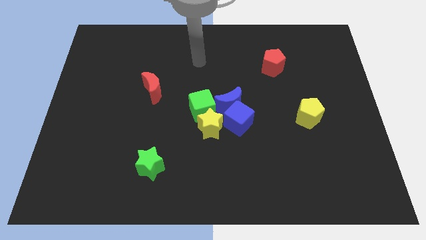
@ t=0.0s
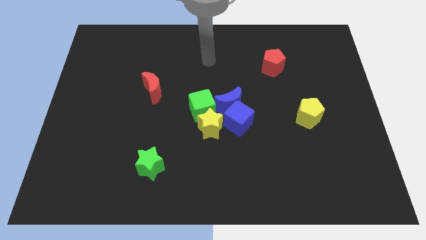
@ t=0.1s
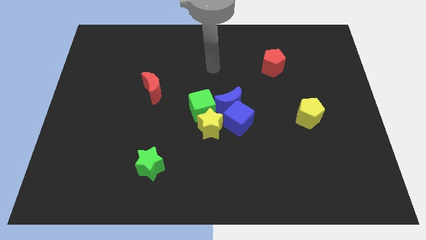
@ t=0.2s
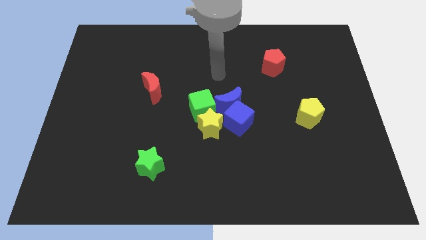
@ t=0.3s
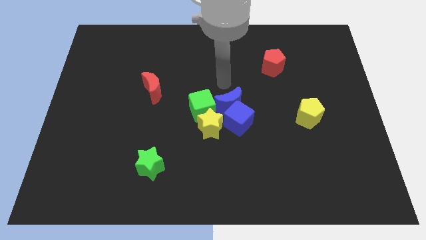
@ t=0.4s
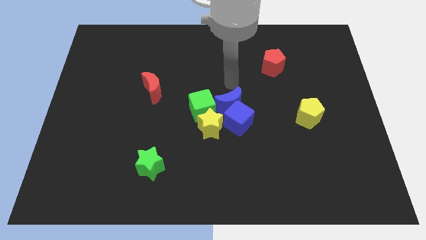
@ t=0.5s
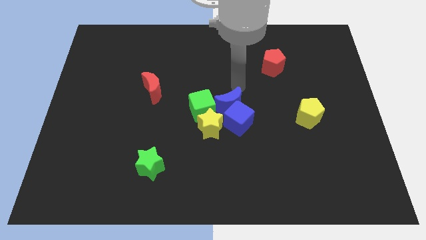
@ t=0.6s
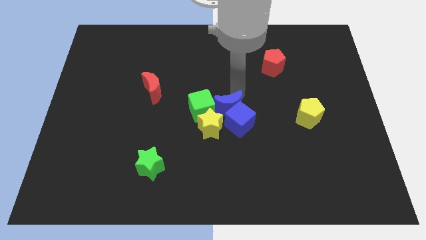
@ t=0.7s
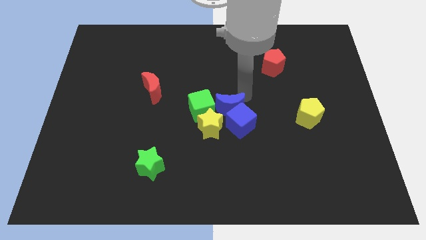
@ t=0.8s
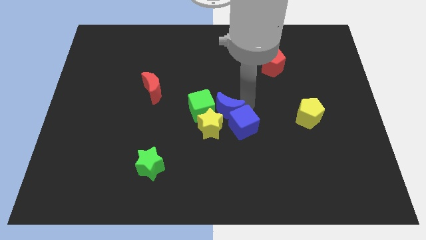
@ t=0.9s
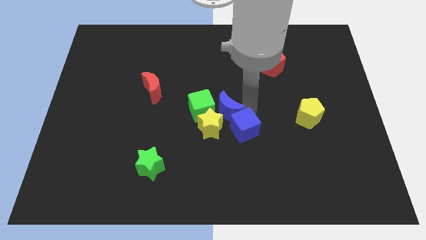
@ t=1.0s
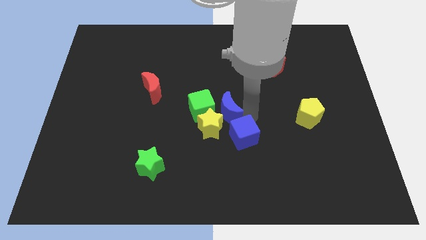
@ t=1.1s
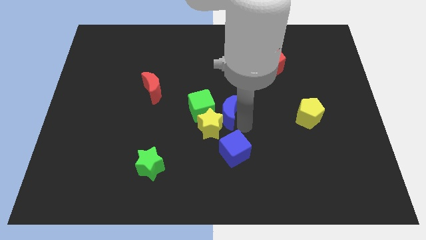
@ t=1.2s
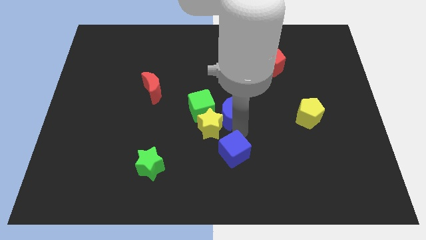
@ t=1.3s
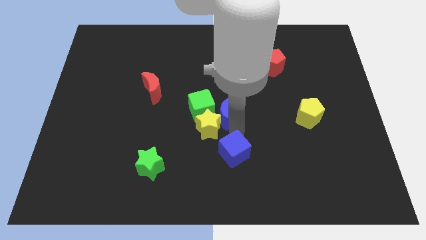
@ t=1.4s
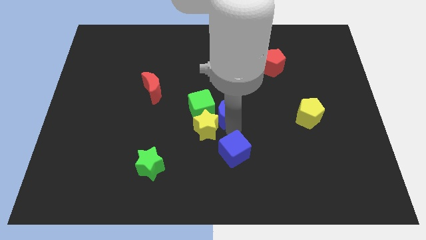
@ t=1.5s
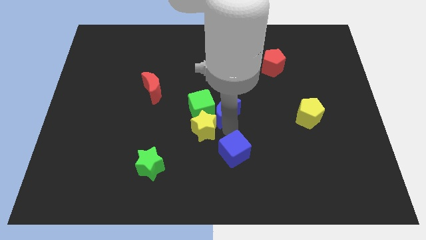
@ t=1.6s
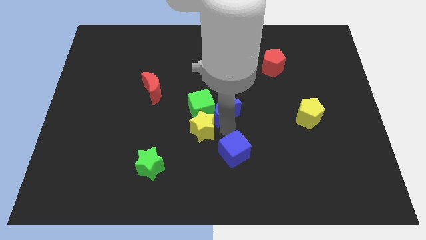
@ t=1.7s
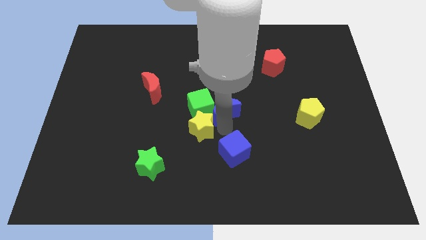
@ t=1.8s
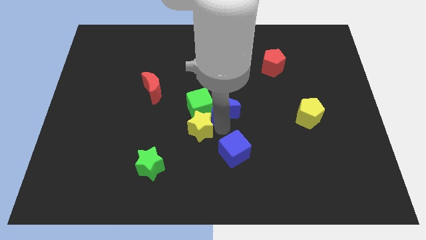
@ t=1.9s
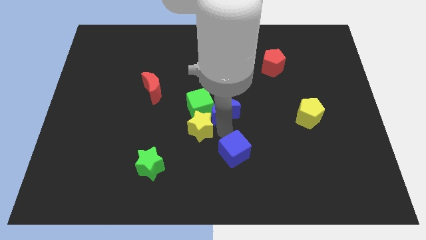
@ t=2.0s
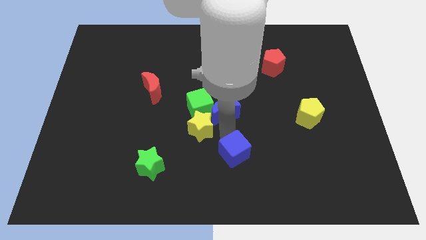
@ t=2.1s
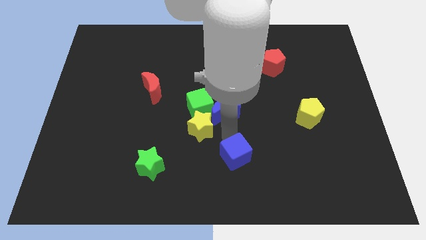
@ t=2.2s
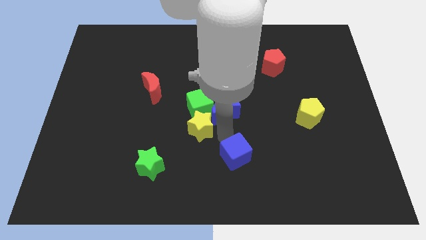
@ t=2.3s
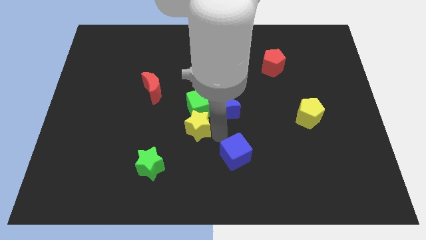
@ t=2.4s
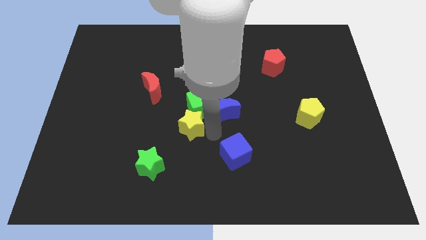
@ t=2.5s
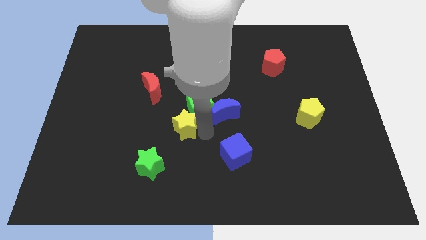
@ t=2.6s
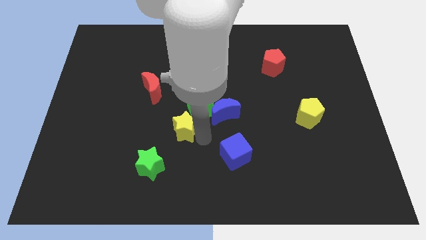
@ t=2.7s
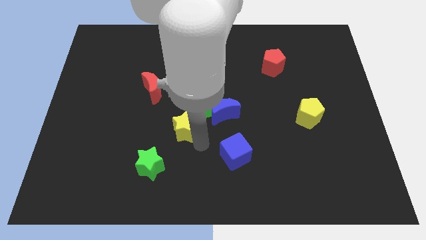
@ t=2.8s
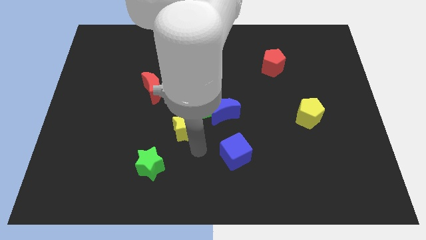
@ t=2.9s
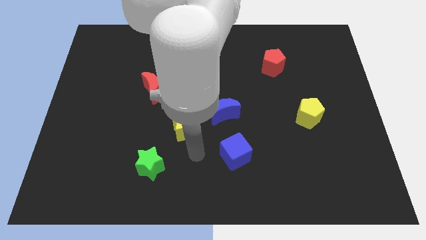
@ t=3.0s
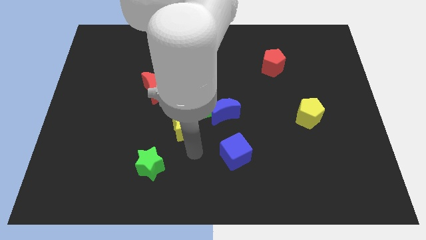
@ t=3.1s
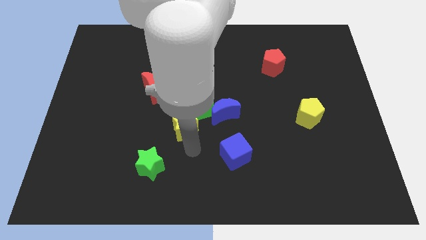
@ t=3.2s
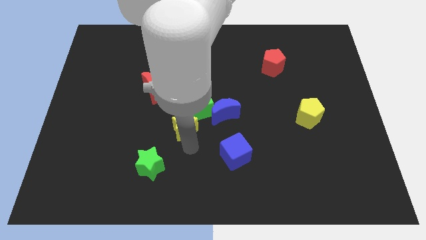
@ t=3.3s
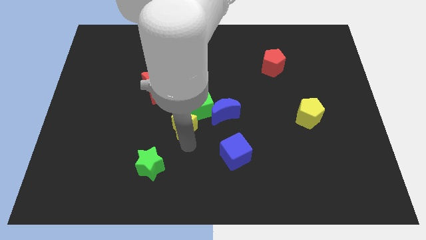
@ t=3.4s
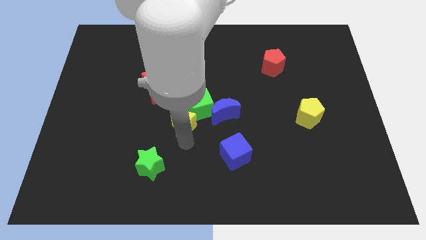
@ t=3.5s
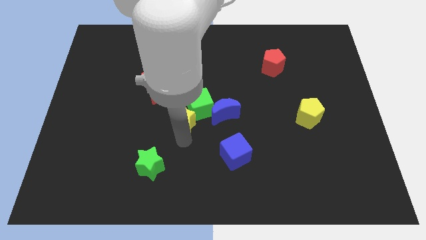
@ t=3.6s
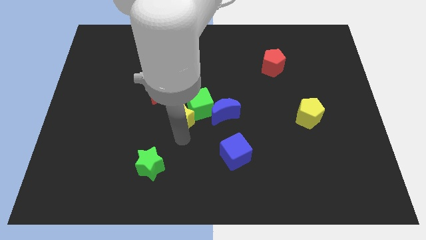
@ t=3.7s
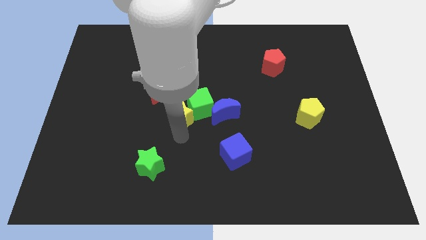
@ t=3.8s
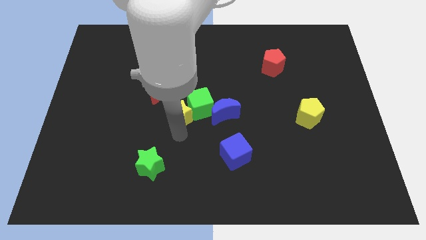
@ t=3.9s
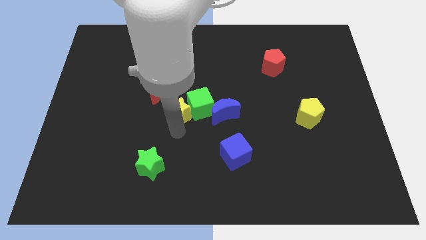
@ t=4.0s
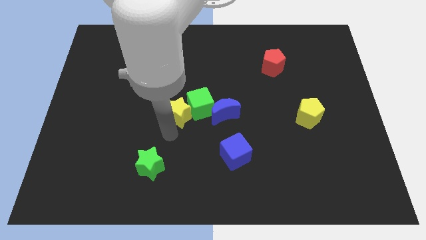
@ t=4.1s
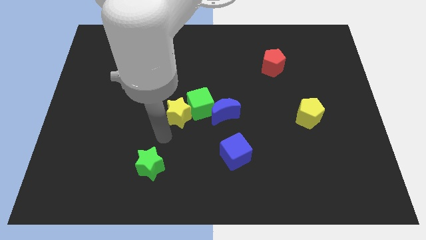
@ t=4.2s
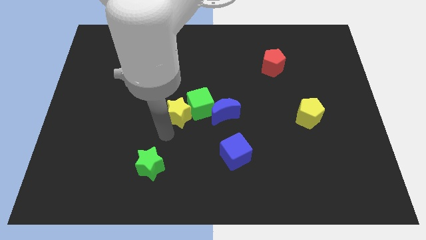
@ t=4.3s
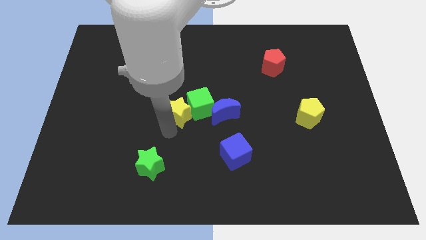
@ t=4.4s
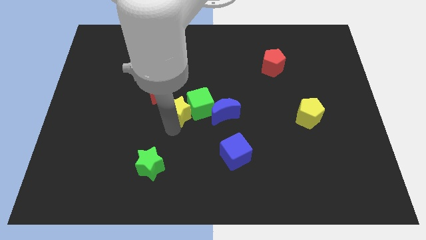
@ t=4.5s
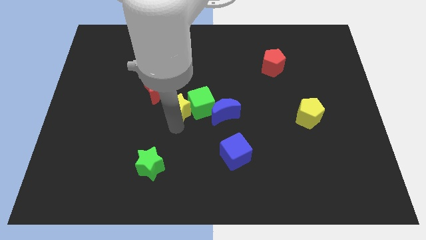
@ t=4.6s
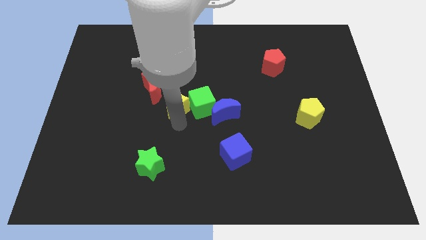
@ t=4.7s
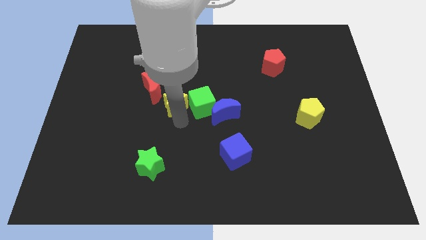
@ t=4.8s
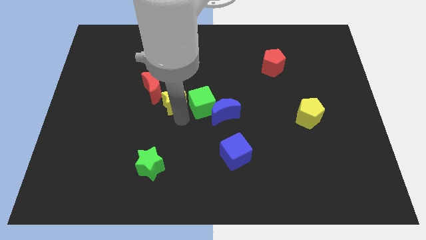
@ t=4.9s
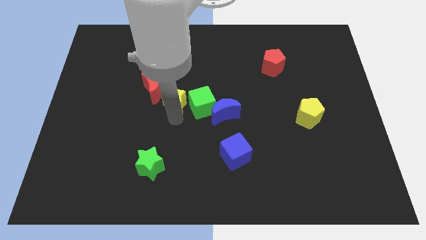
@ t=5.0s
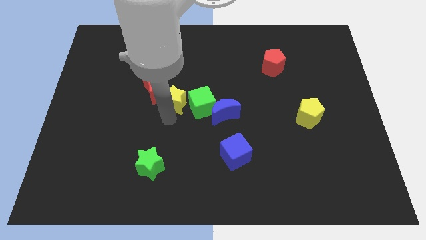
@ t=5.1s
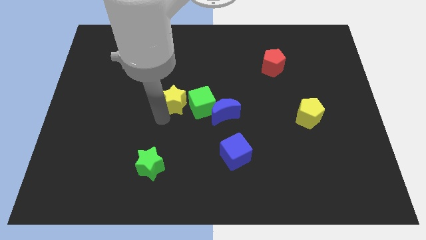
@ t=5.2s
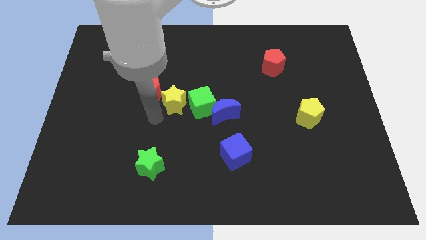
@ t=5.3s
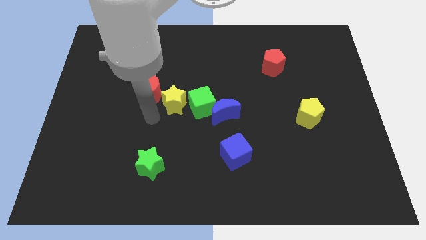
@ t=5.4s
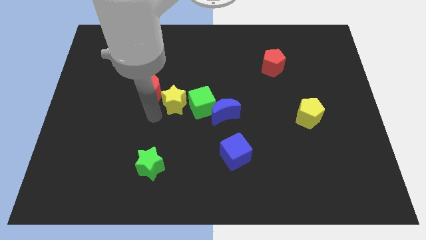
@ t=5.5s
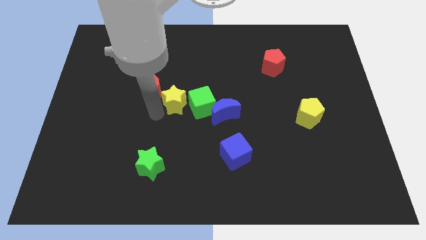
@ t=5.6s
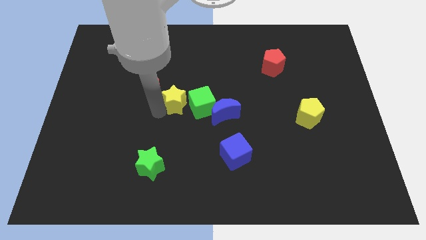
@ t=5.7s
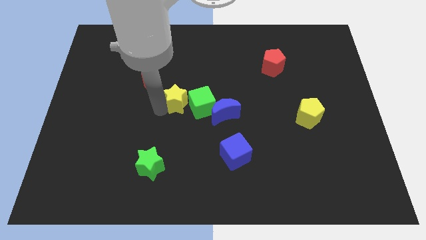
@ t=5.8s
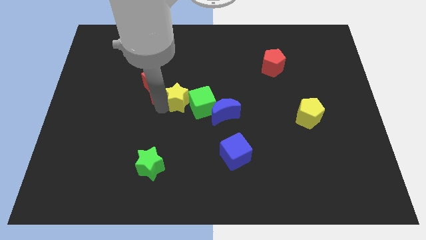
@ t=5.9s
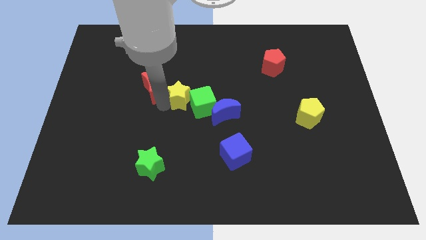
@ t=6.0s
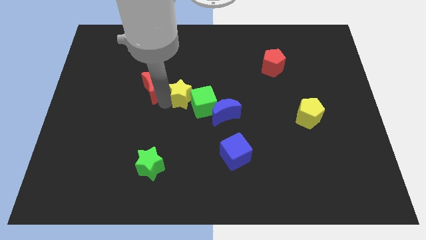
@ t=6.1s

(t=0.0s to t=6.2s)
slightly slide the yellow star upwards

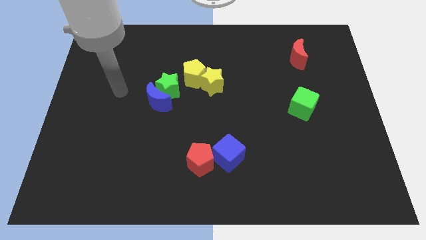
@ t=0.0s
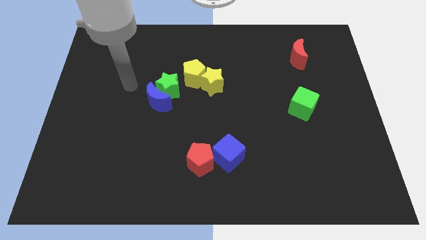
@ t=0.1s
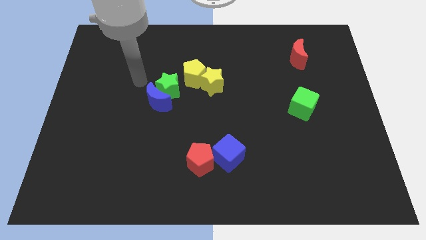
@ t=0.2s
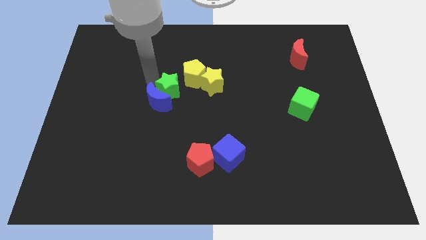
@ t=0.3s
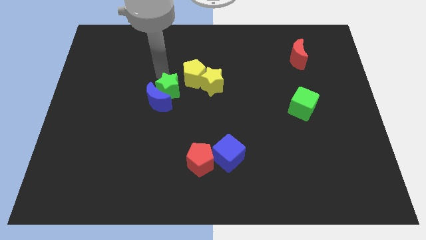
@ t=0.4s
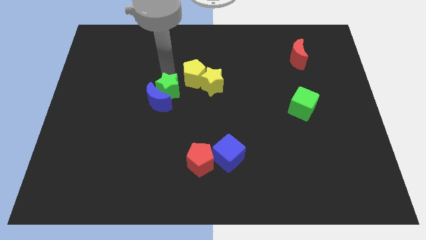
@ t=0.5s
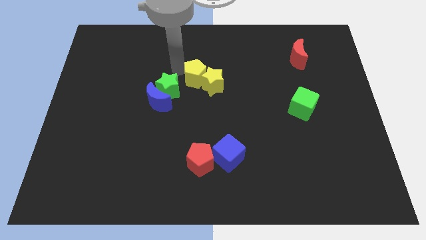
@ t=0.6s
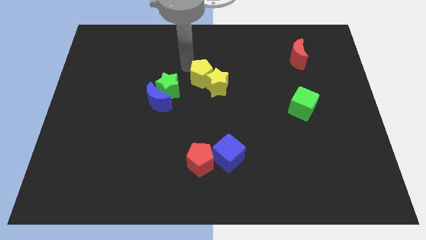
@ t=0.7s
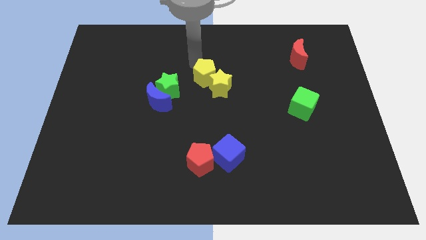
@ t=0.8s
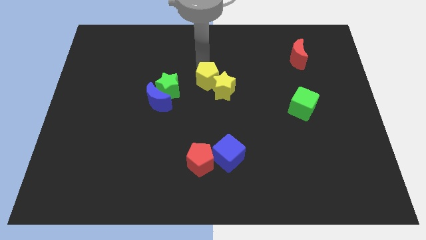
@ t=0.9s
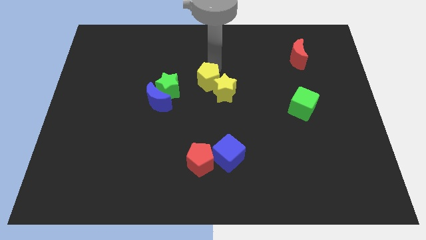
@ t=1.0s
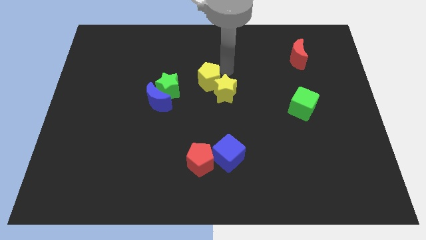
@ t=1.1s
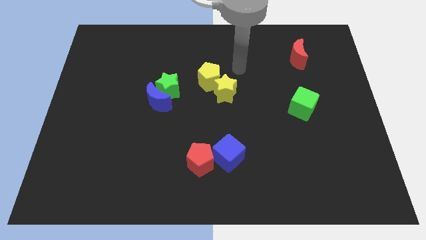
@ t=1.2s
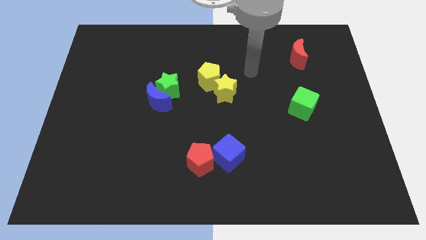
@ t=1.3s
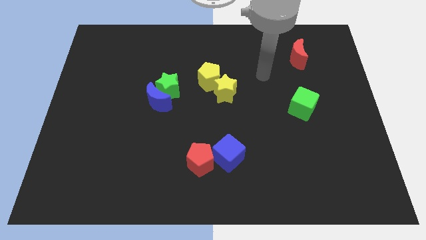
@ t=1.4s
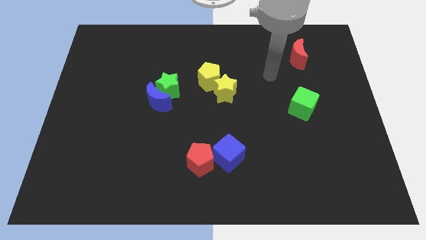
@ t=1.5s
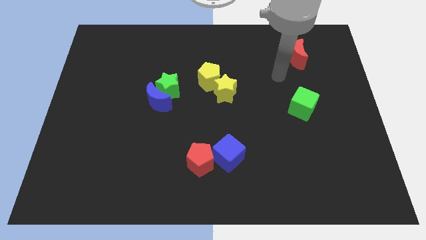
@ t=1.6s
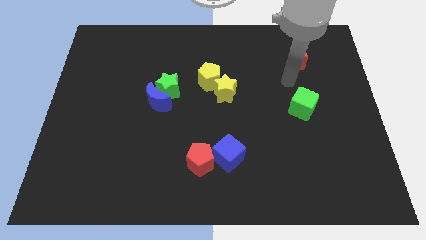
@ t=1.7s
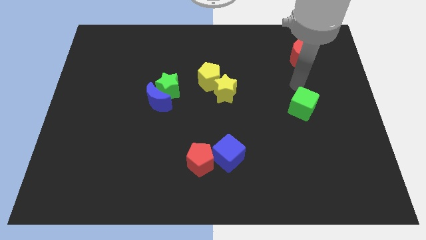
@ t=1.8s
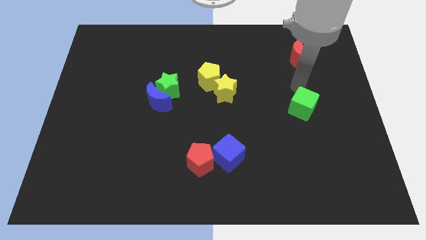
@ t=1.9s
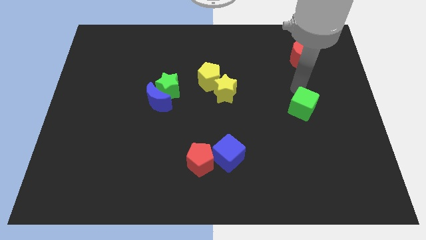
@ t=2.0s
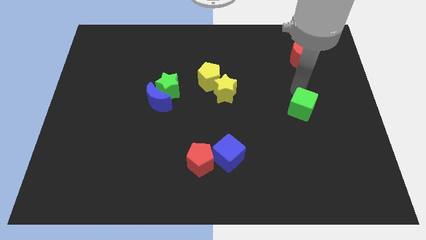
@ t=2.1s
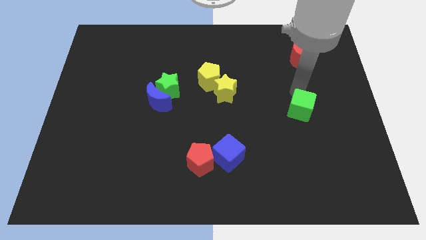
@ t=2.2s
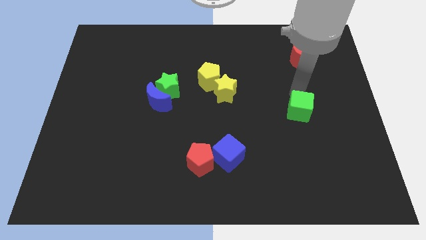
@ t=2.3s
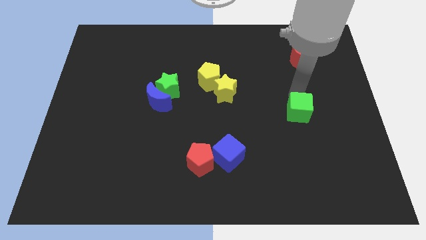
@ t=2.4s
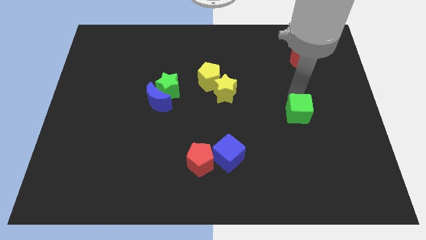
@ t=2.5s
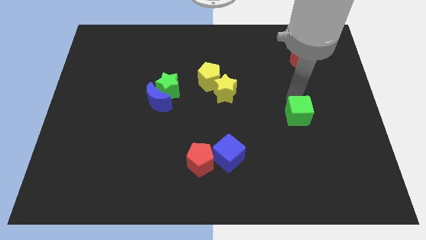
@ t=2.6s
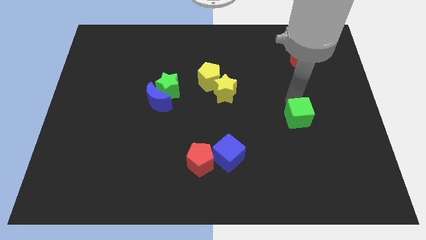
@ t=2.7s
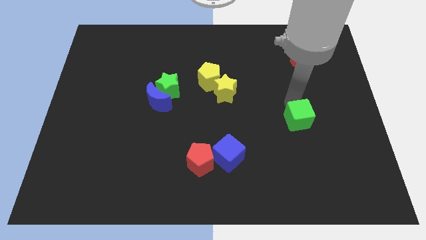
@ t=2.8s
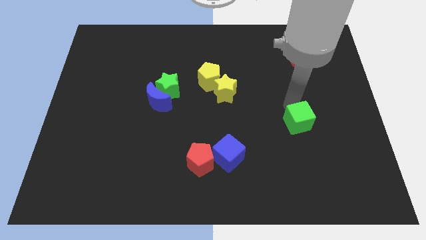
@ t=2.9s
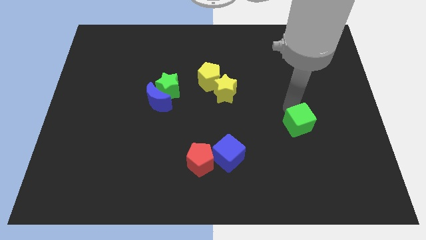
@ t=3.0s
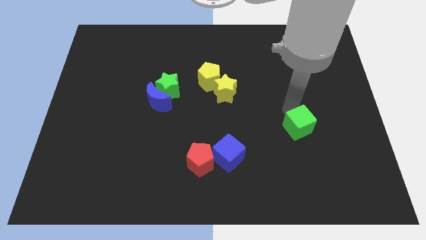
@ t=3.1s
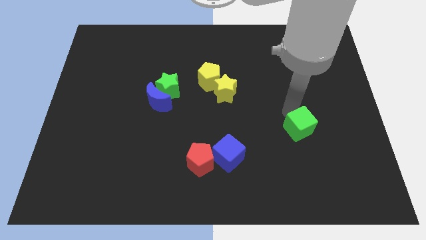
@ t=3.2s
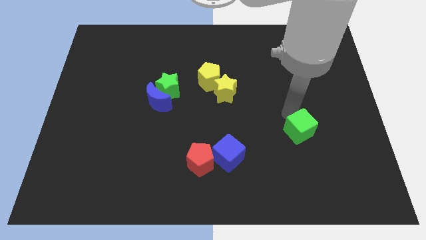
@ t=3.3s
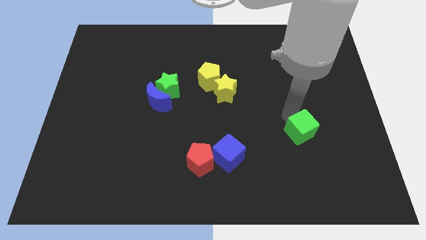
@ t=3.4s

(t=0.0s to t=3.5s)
slightly slide the green cube down
